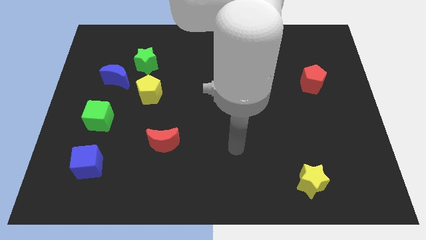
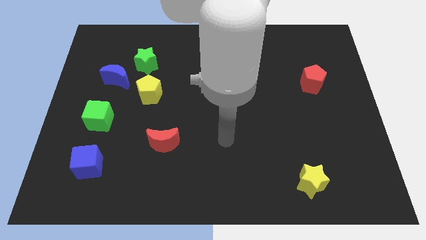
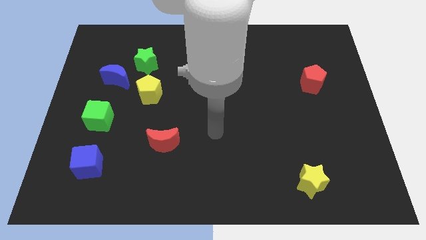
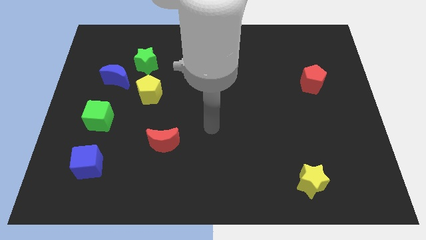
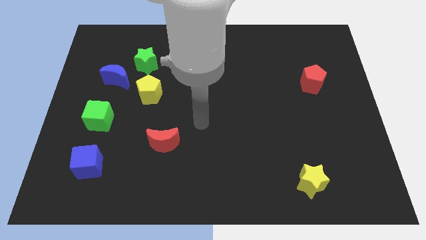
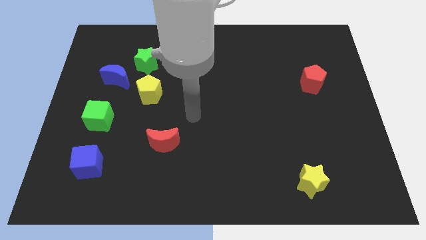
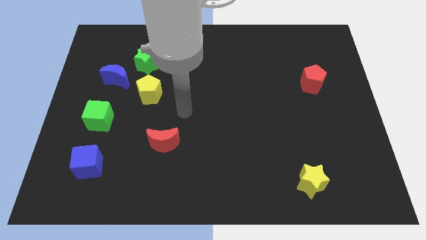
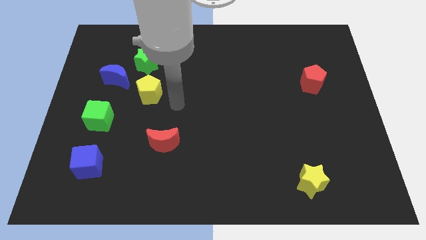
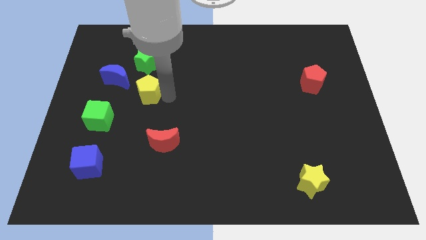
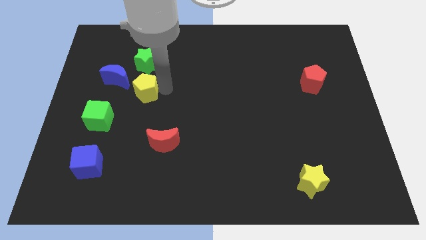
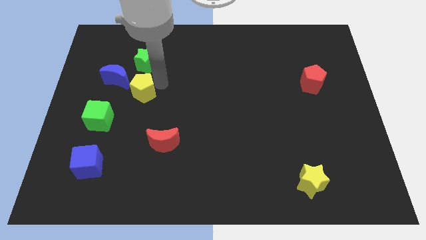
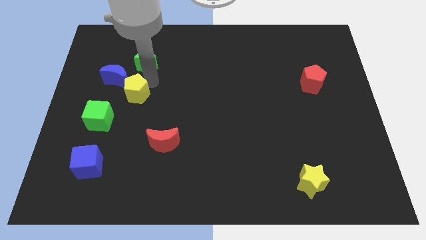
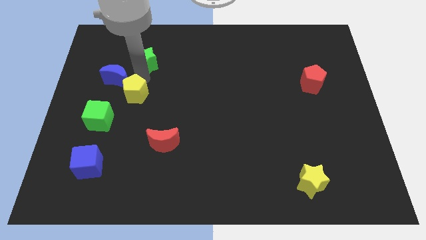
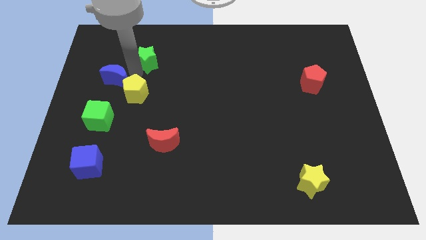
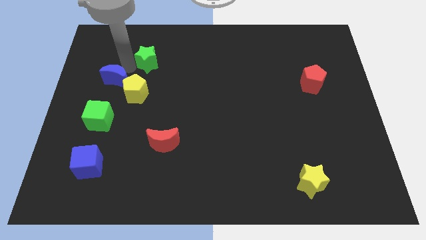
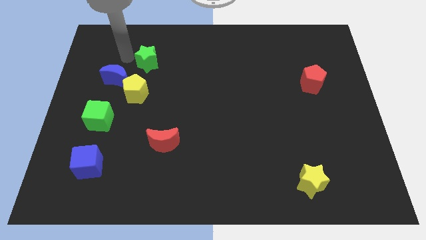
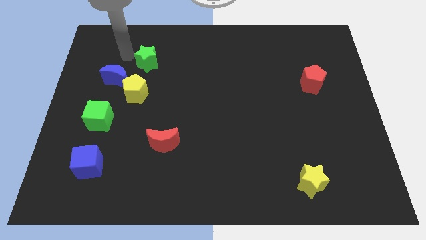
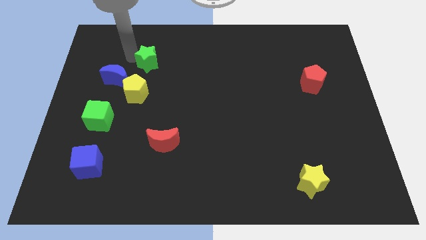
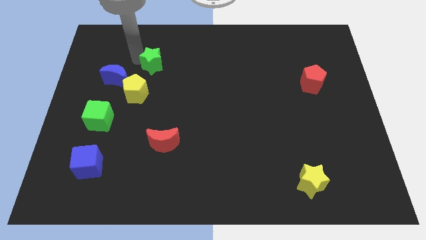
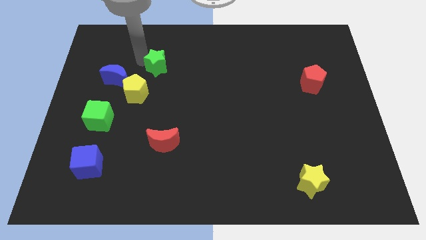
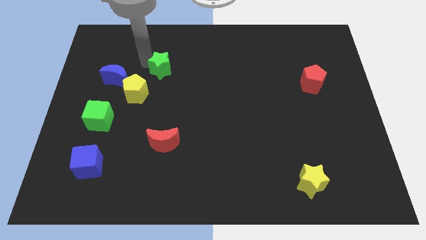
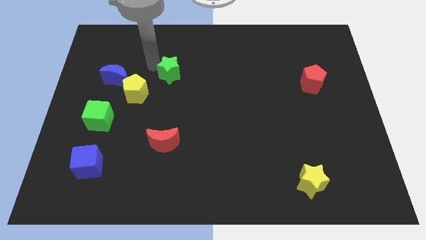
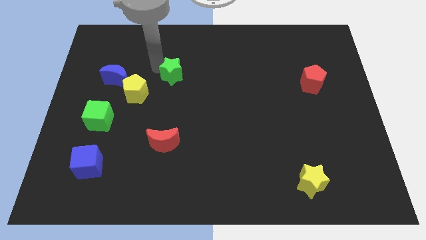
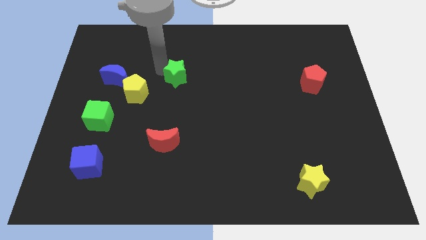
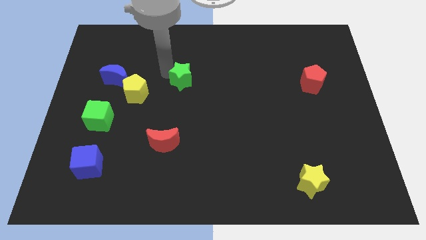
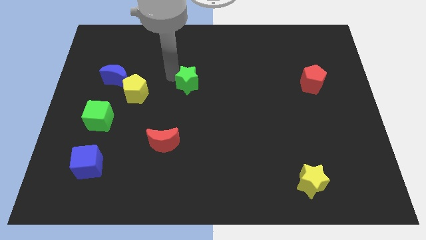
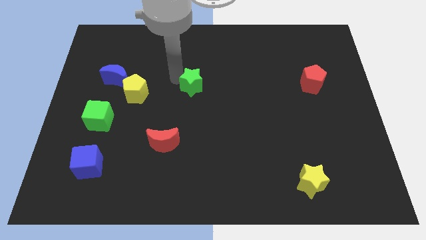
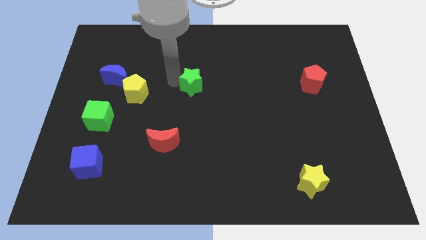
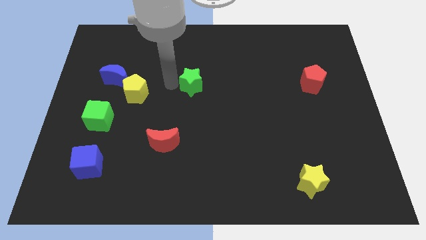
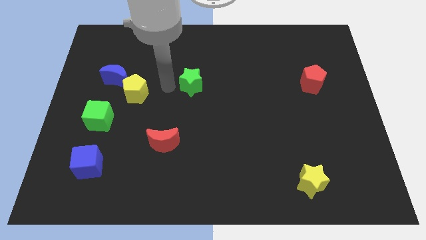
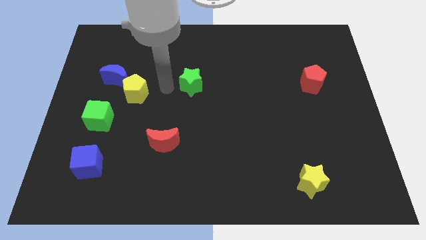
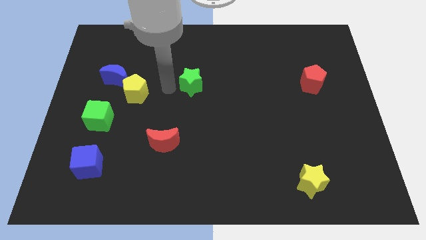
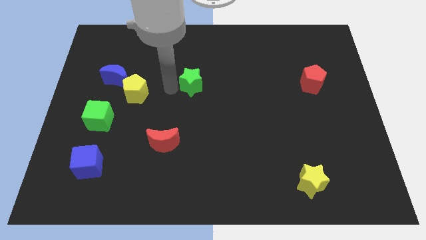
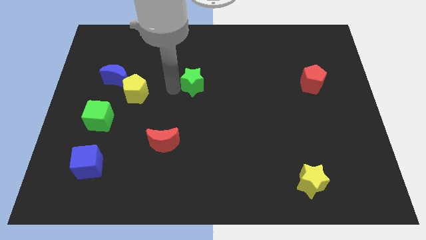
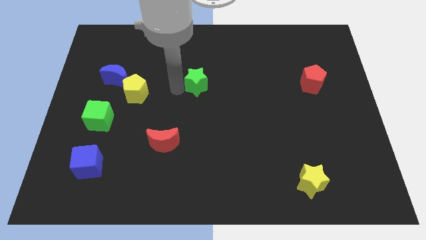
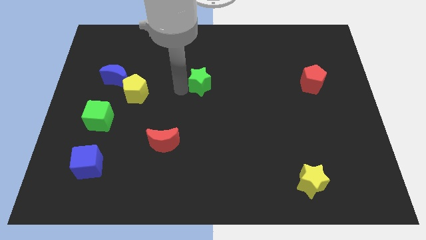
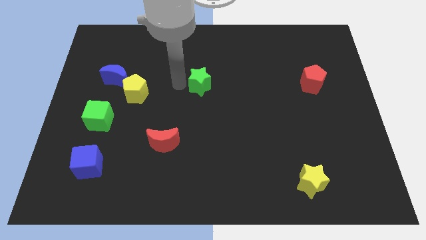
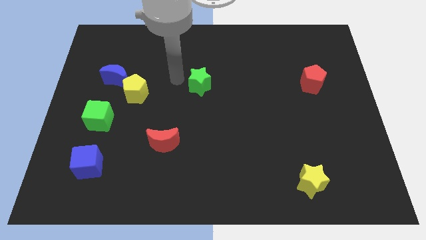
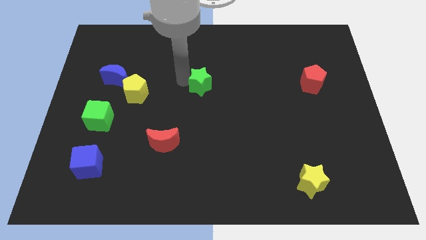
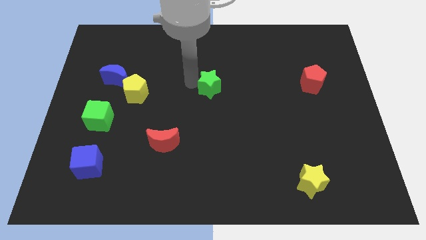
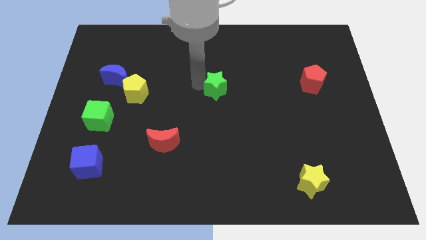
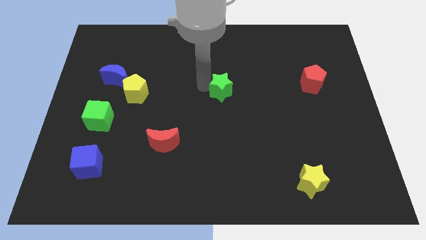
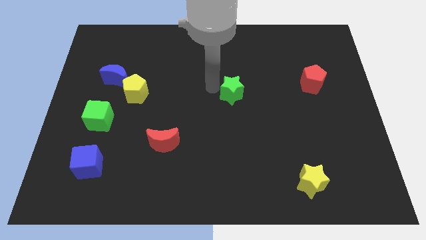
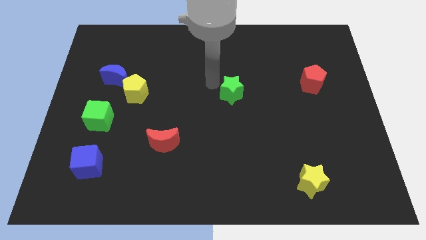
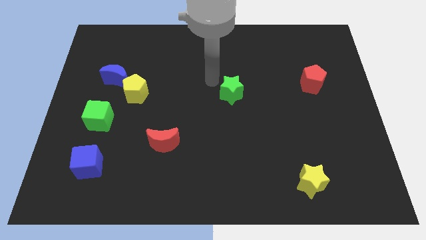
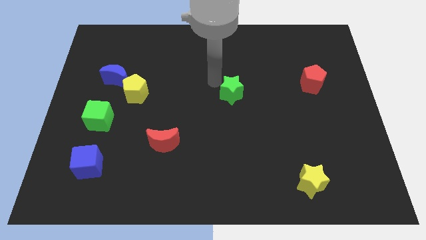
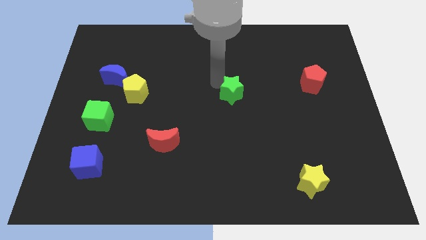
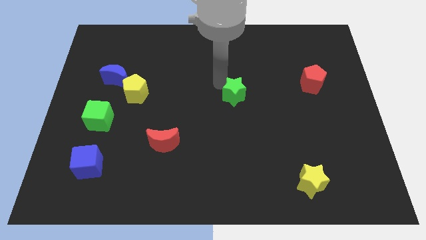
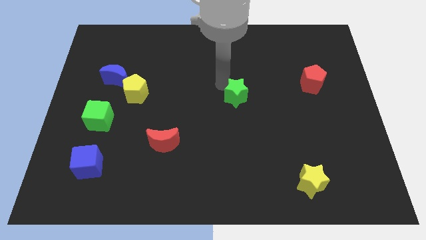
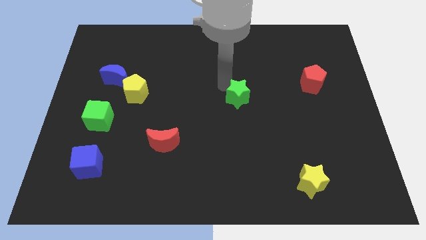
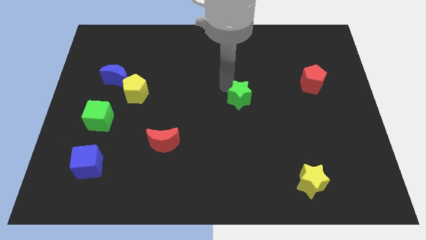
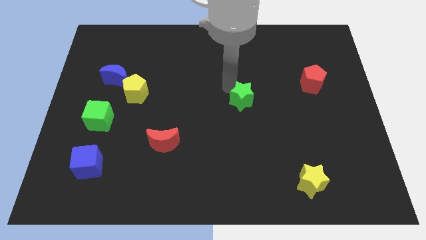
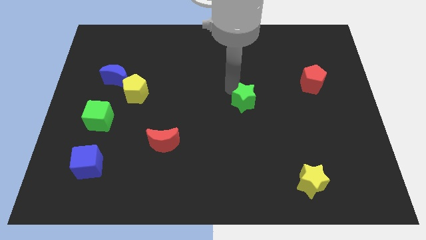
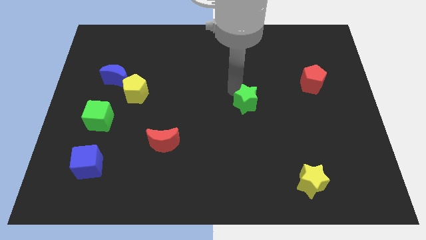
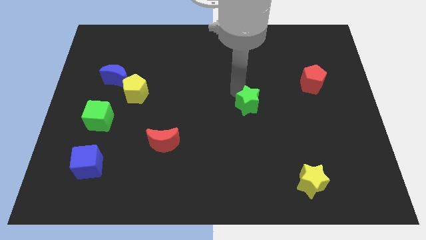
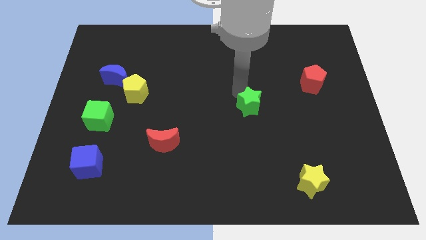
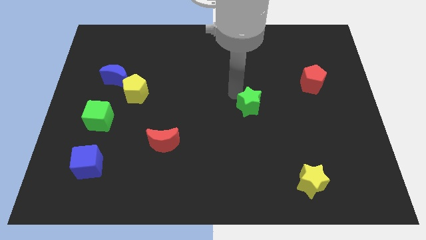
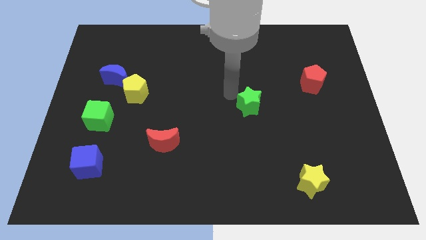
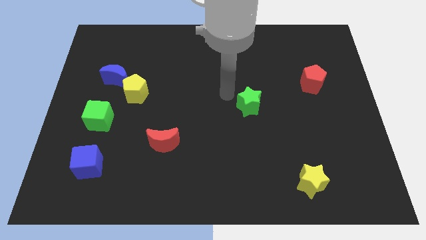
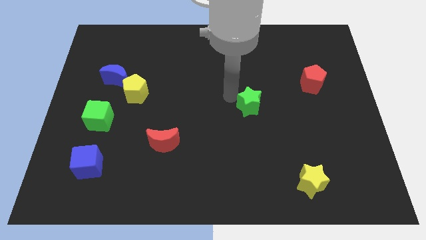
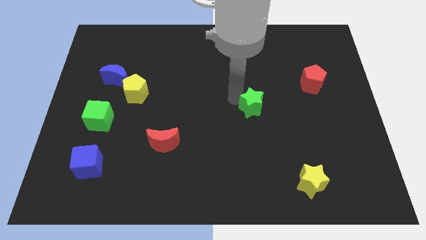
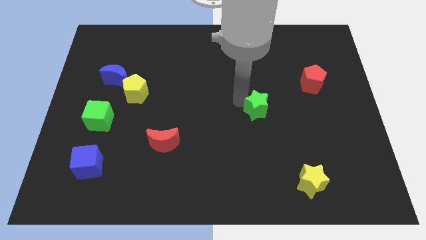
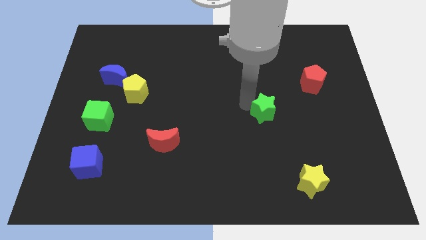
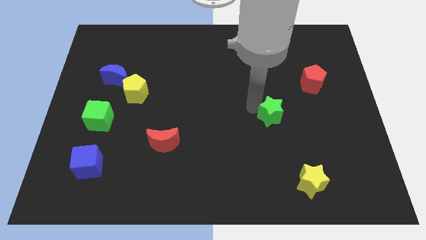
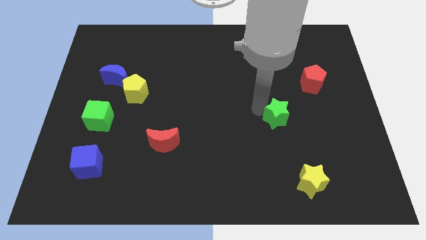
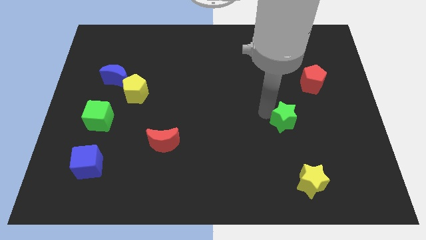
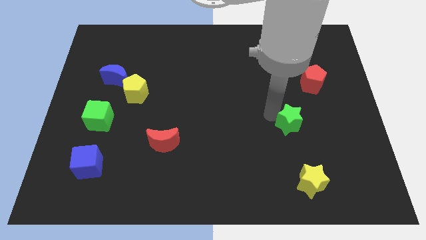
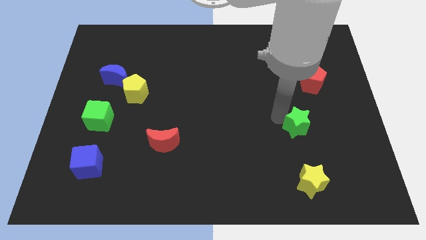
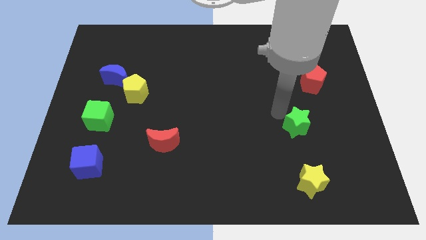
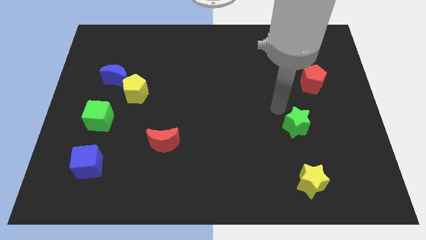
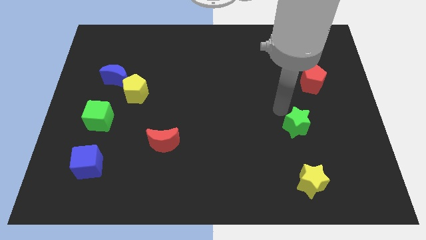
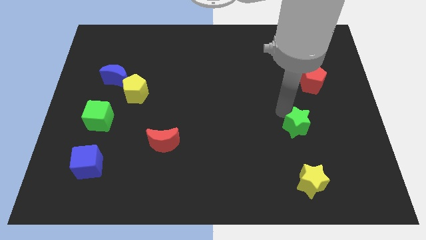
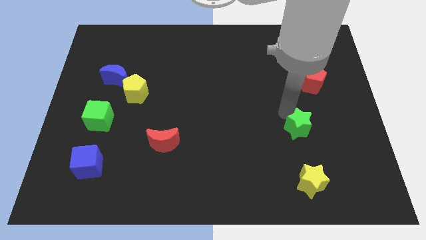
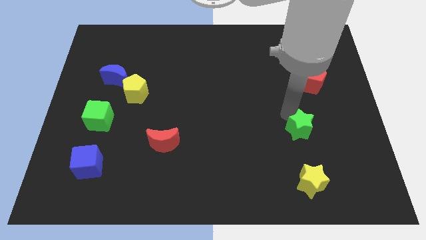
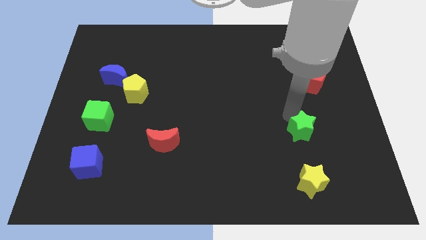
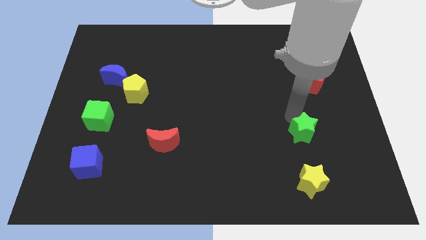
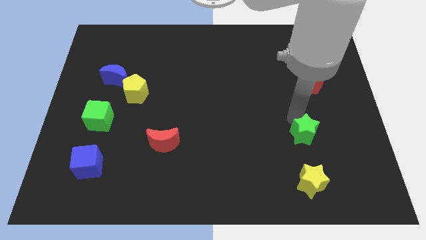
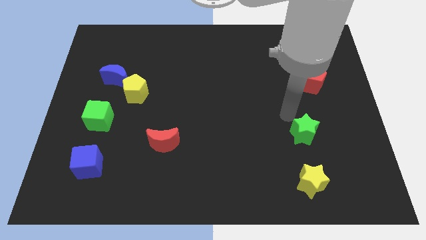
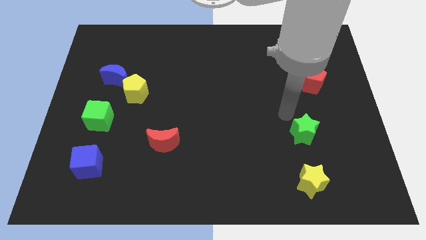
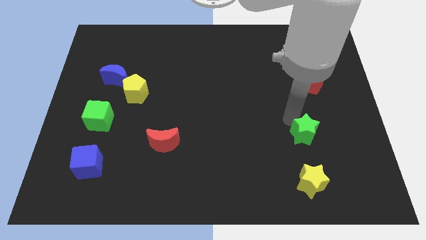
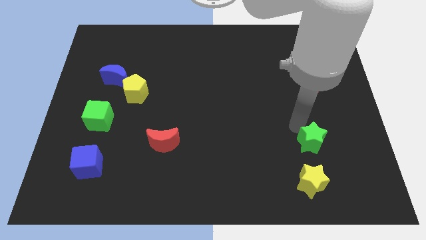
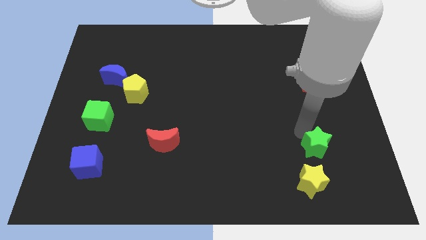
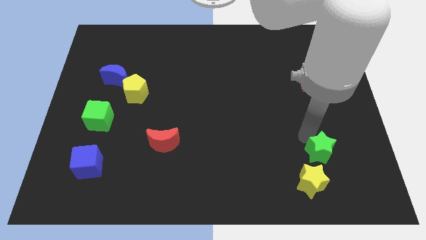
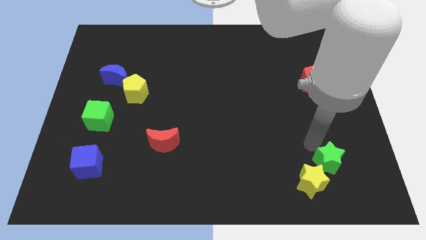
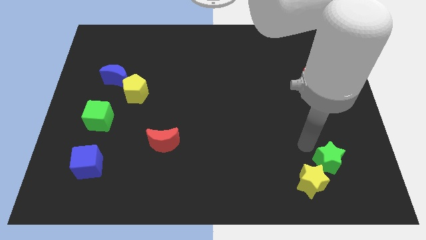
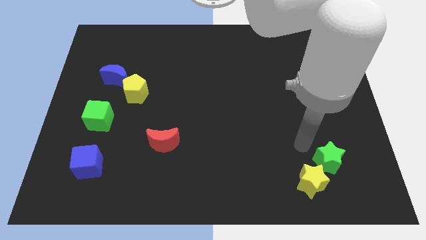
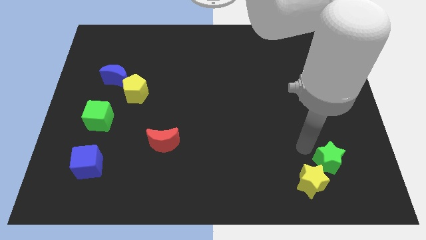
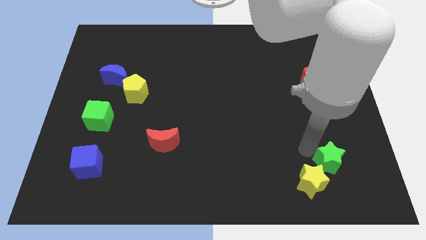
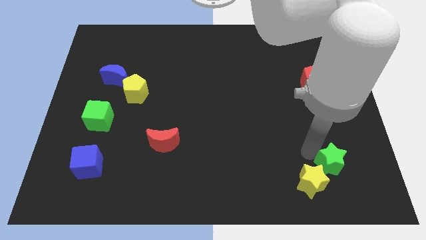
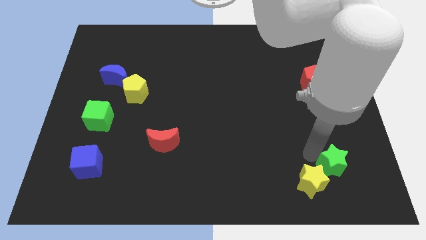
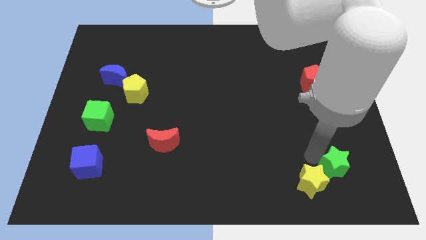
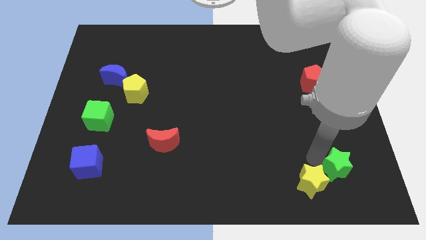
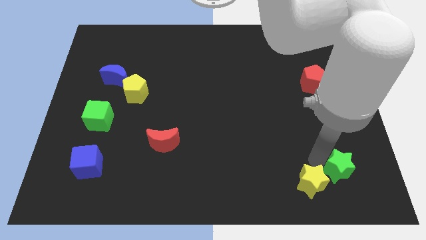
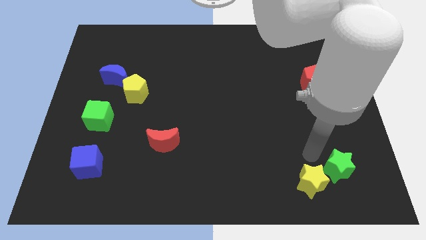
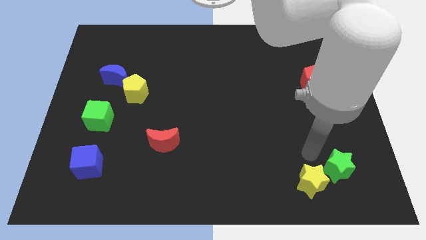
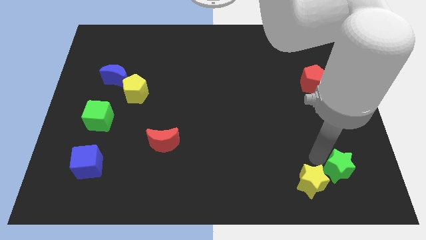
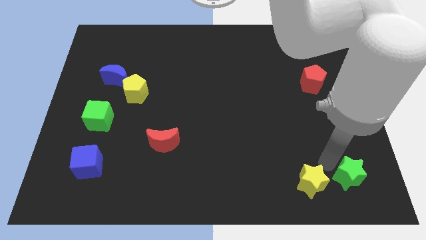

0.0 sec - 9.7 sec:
move the green star to the bottom right of the board
